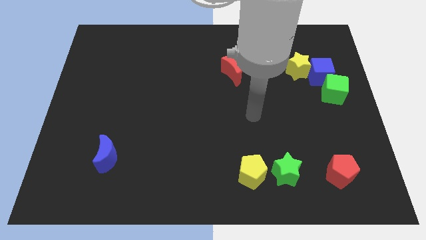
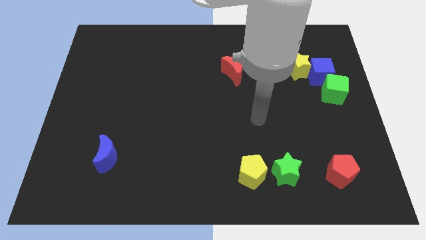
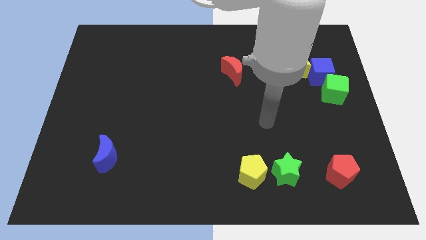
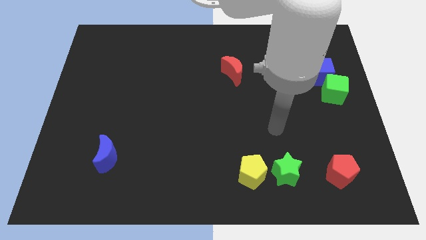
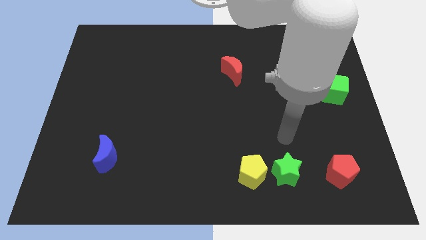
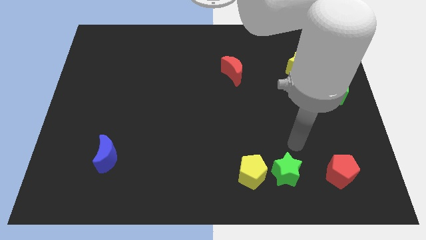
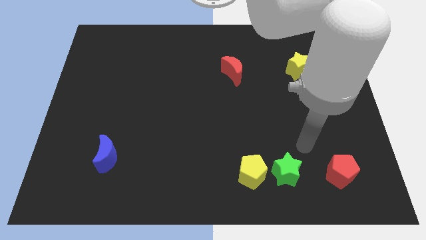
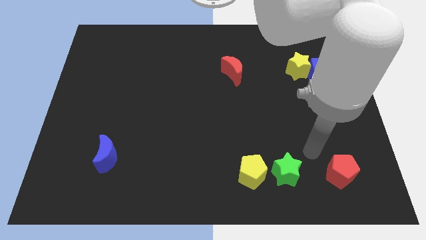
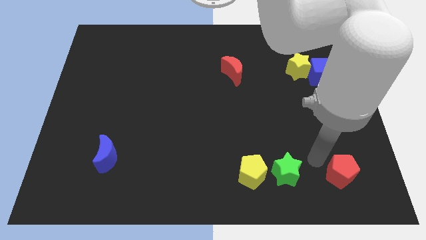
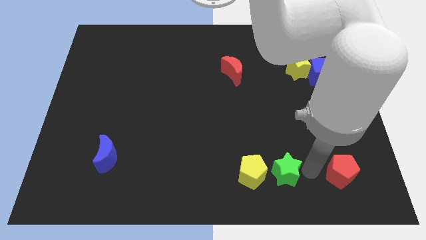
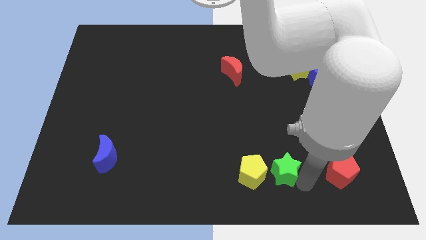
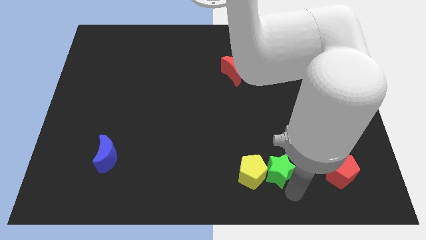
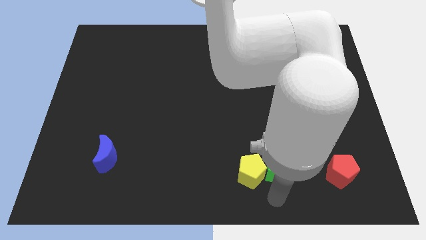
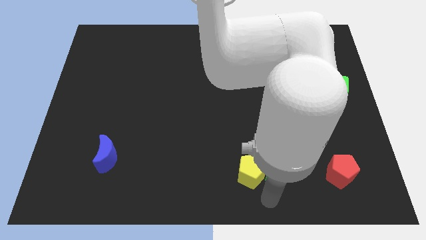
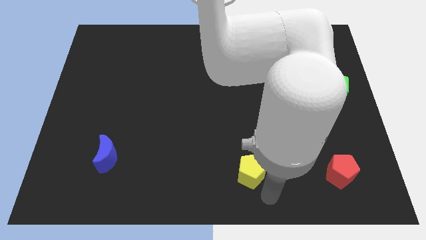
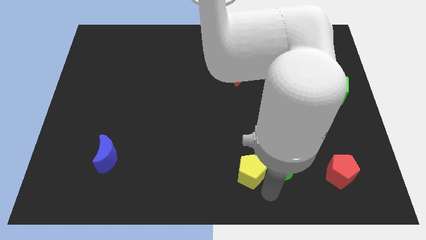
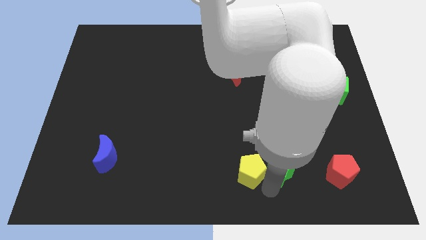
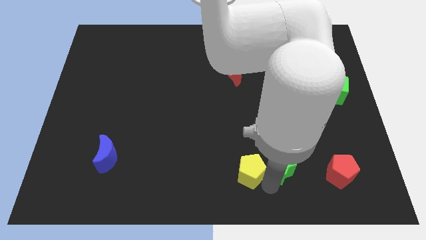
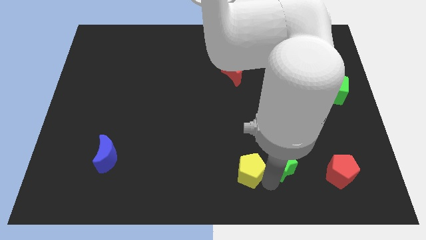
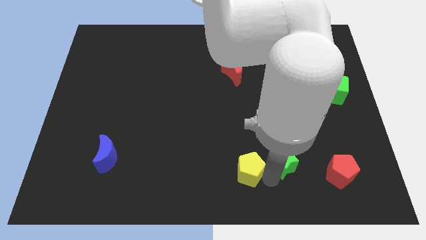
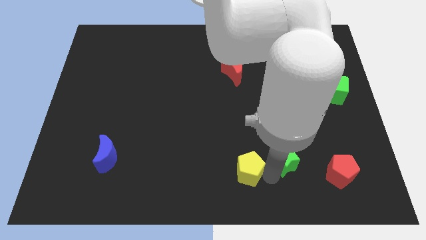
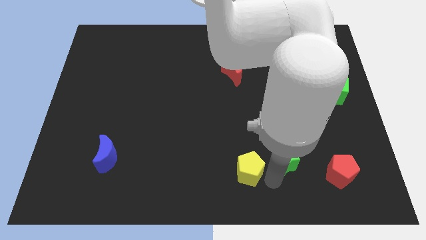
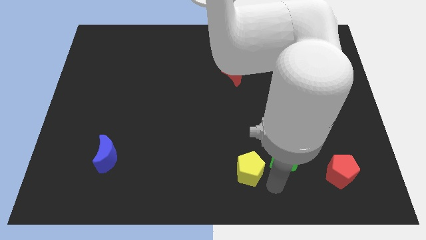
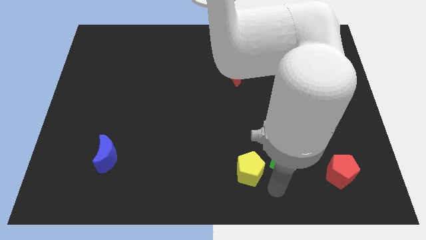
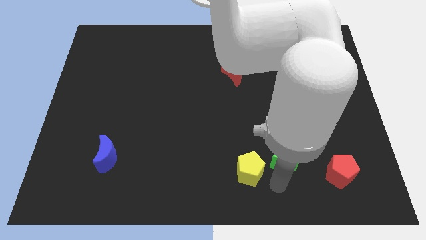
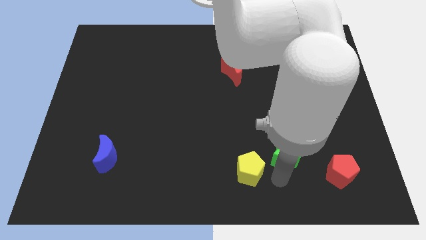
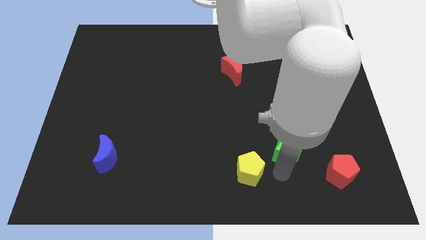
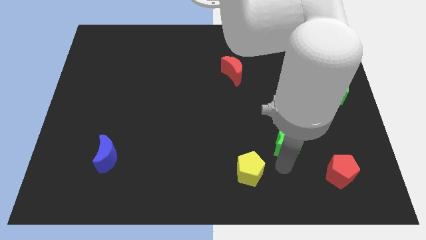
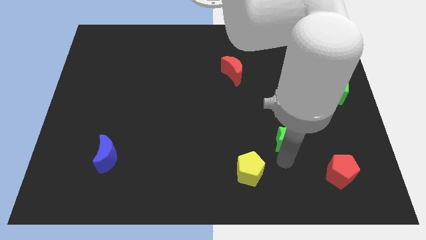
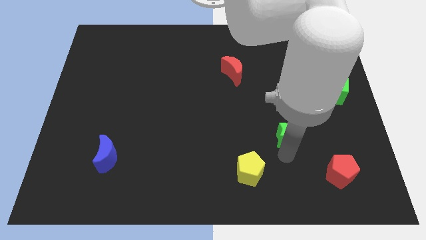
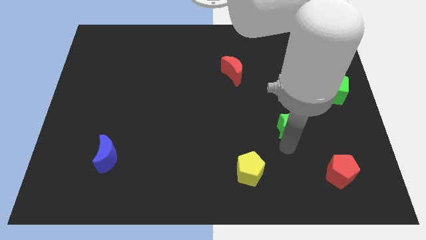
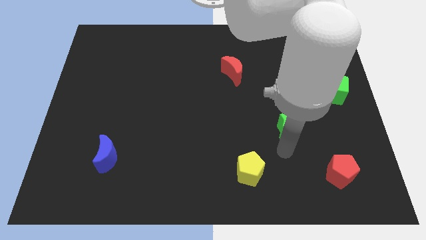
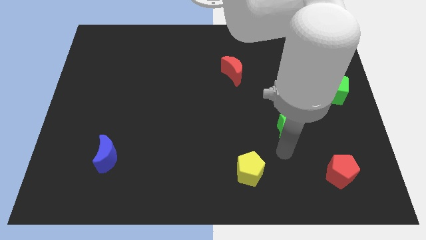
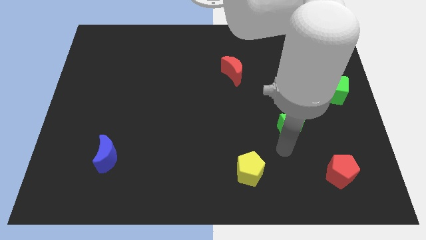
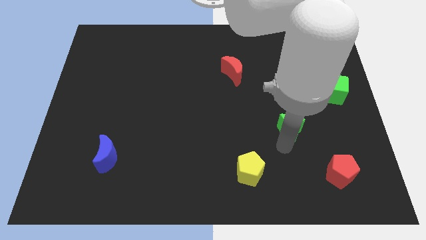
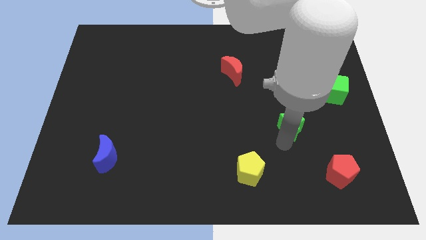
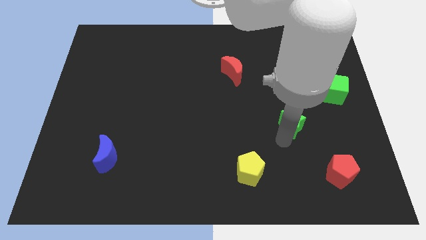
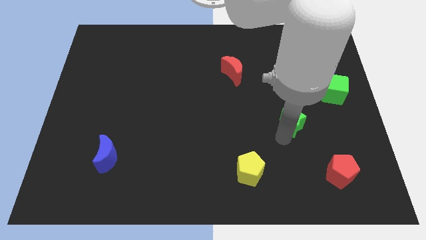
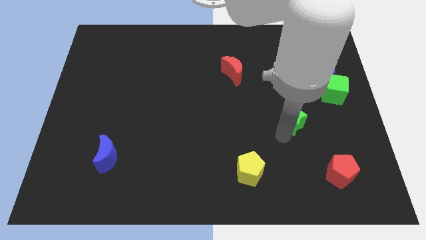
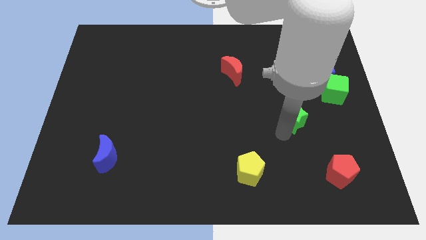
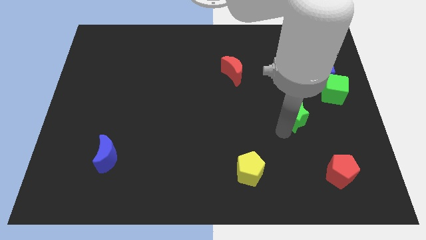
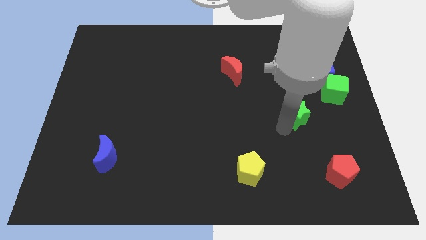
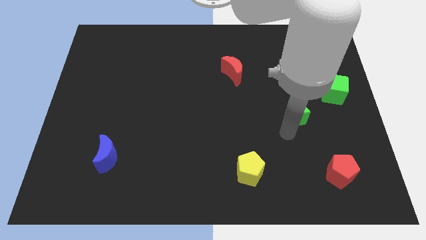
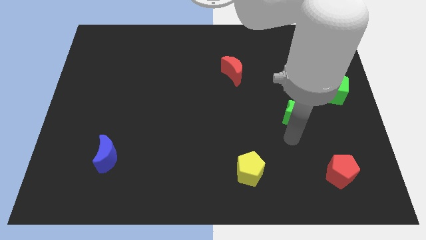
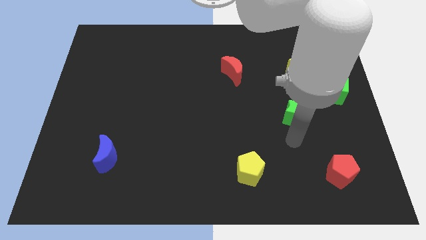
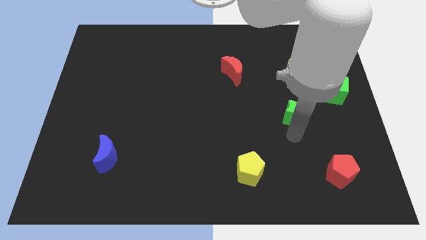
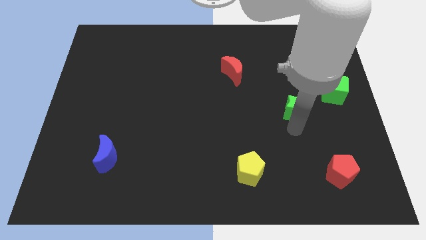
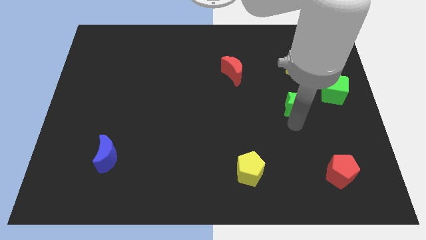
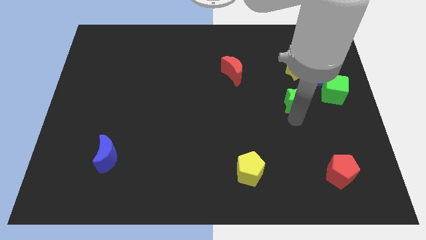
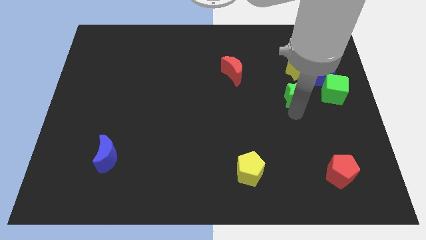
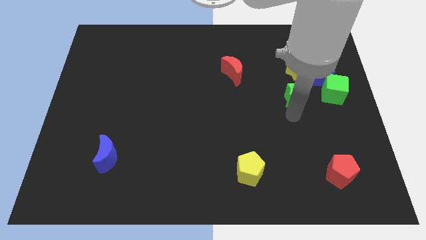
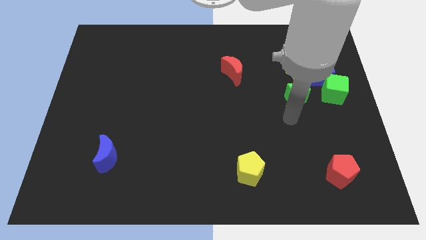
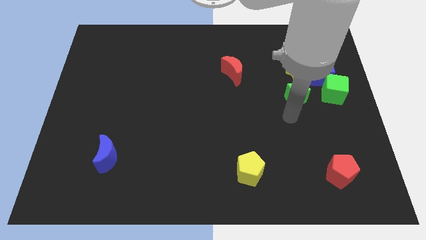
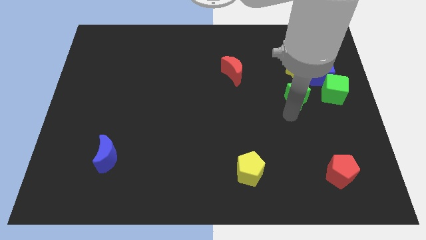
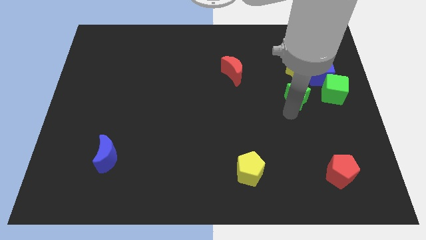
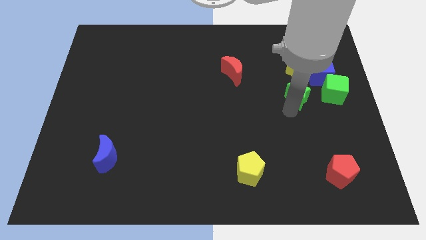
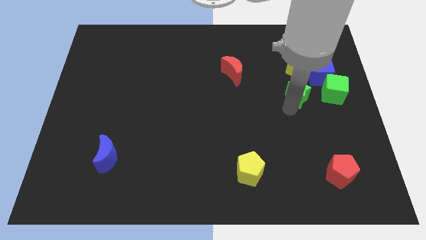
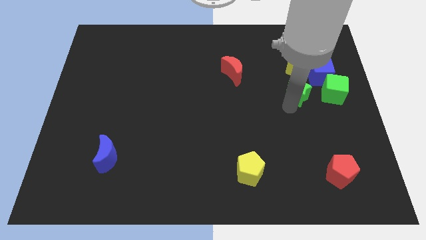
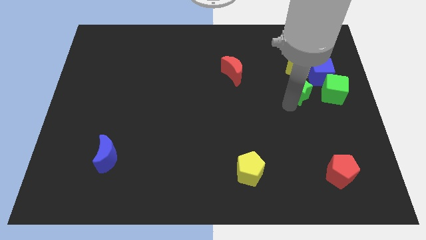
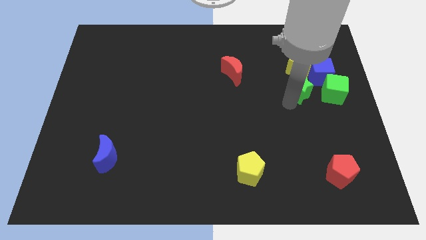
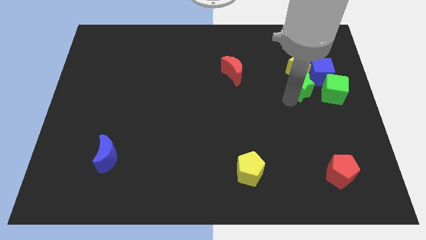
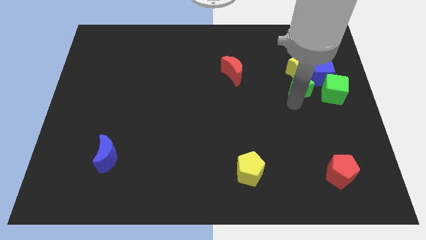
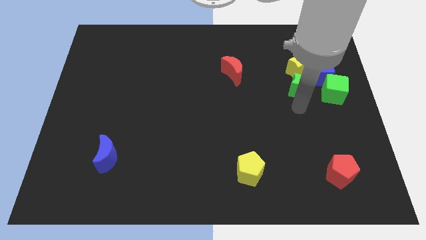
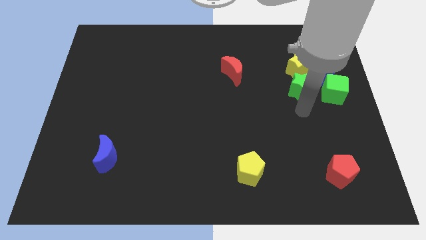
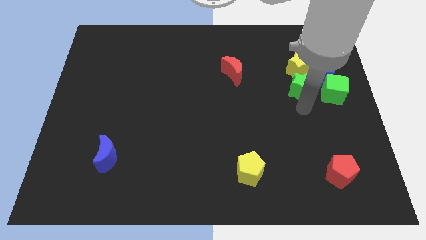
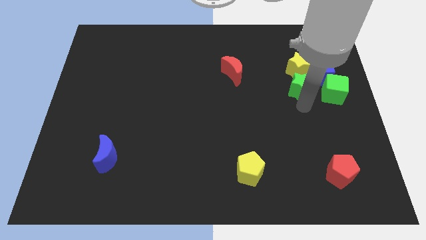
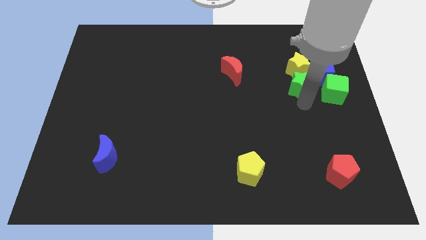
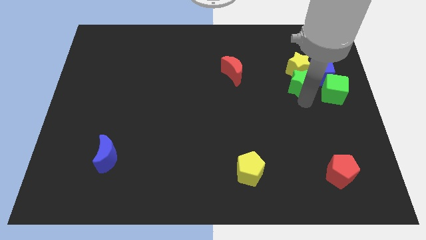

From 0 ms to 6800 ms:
move the green star to the yellow star

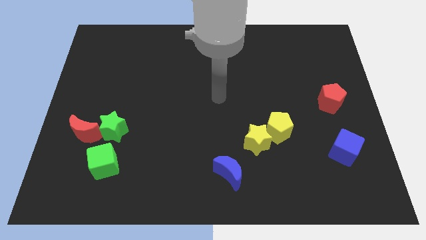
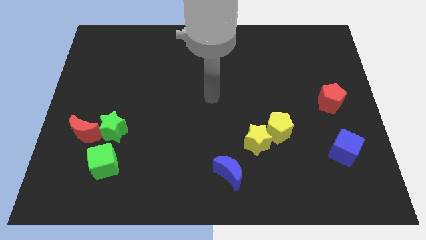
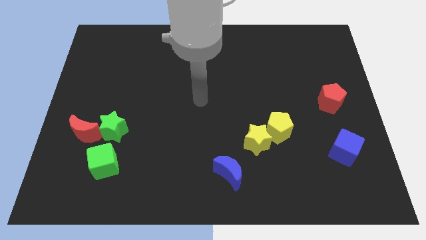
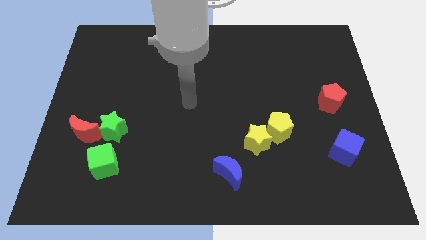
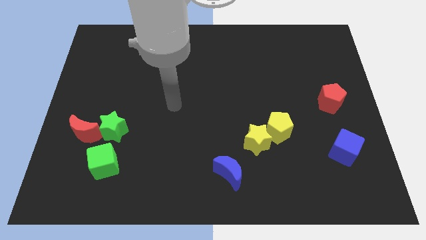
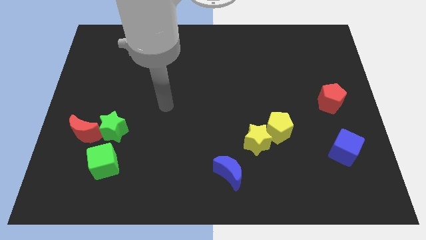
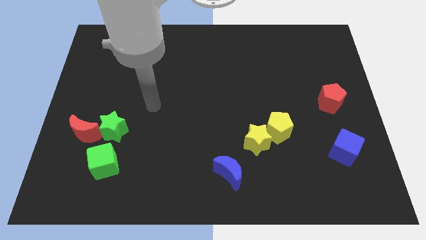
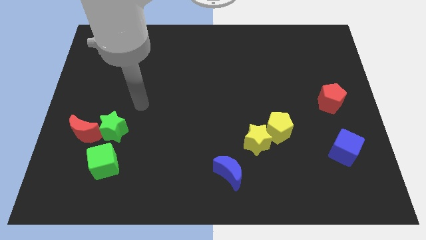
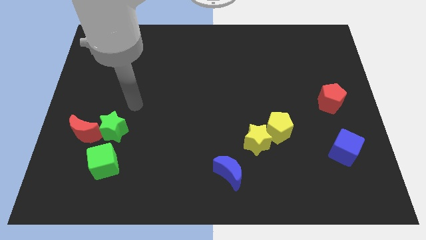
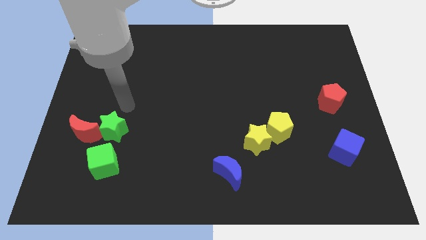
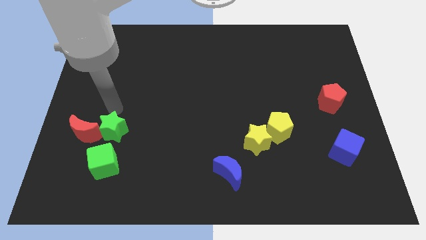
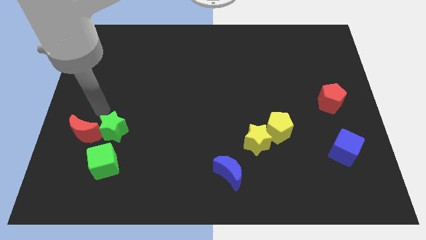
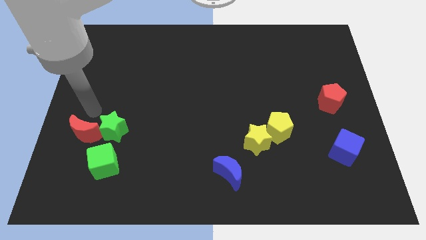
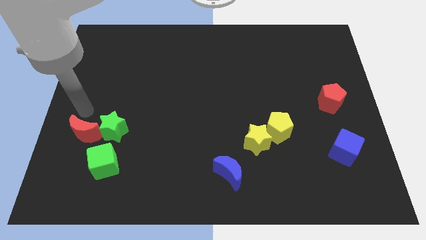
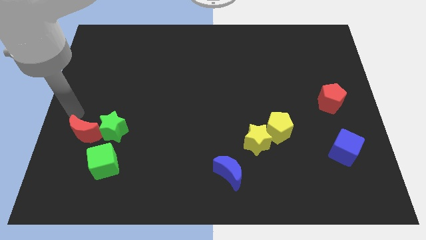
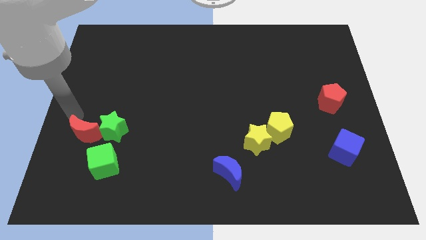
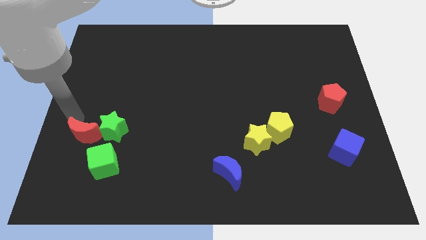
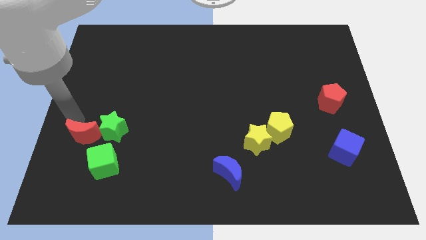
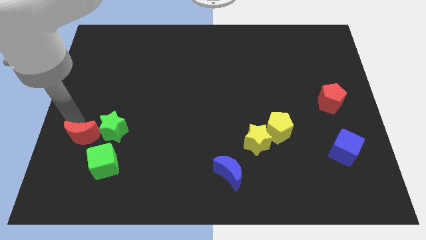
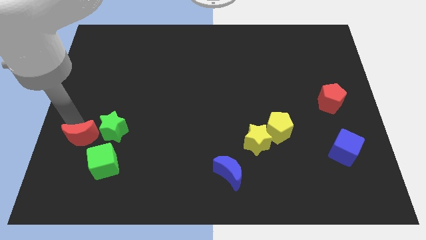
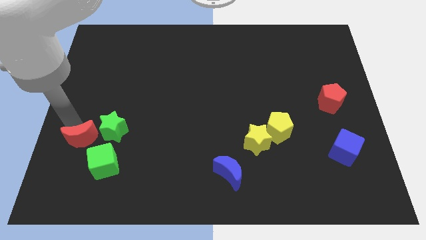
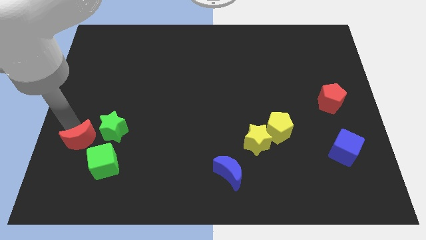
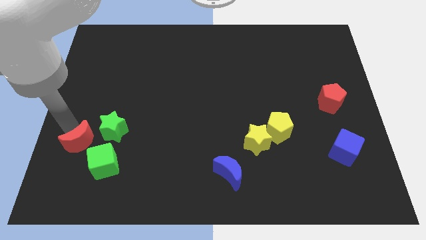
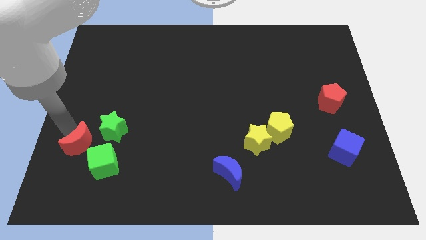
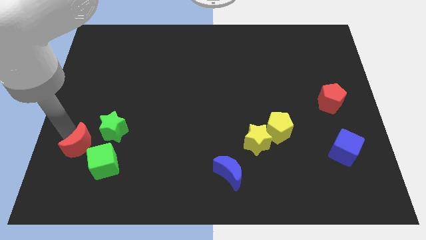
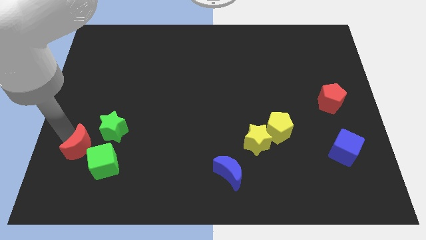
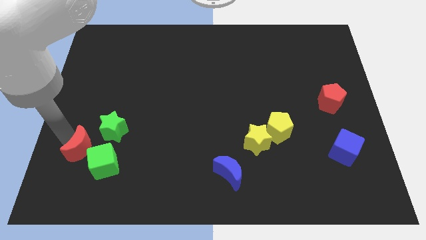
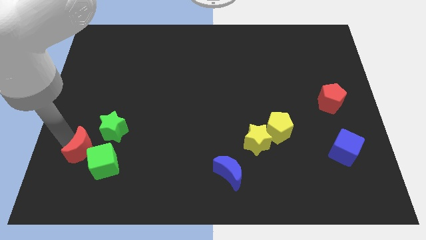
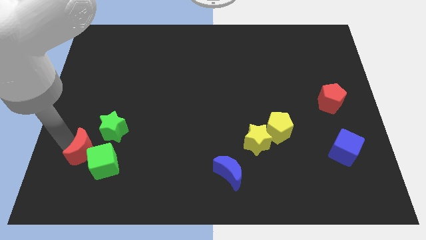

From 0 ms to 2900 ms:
slide the red moon to the green cube
